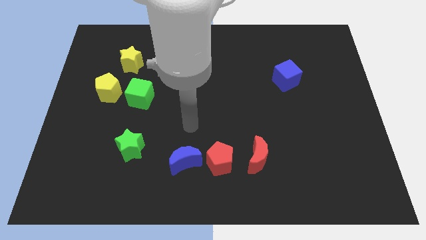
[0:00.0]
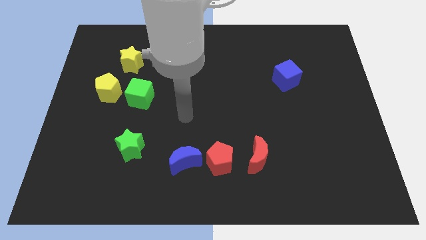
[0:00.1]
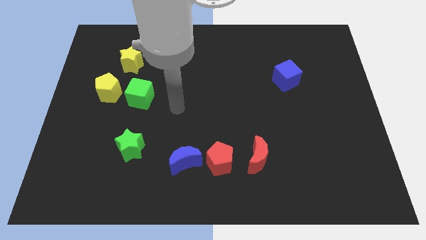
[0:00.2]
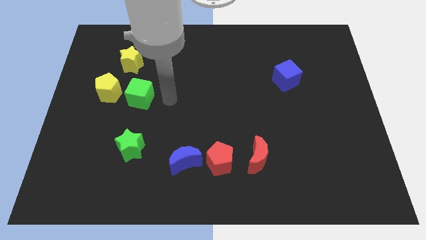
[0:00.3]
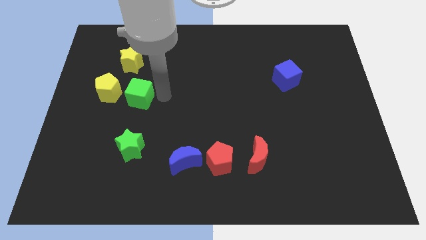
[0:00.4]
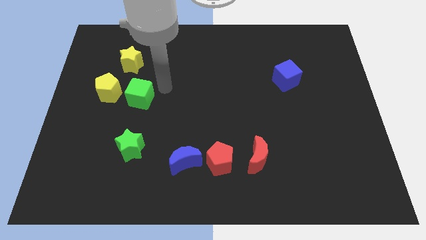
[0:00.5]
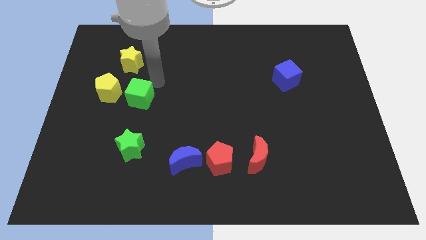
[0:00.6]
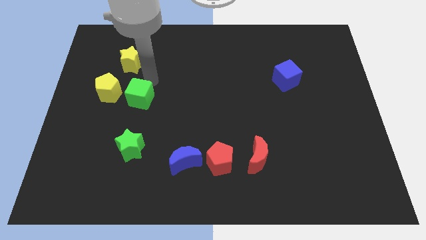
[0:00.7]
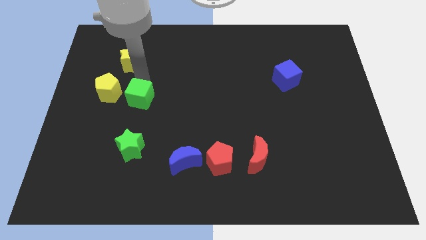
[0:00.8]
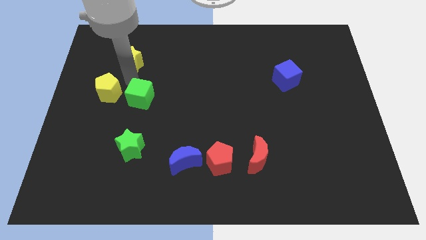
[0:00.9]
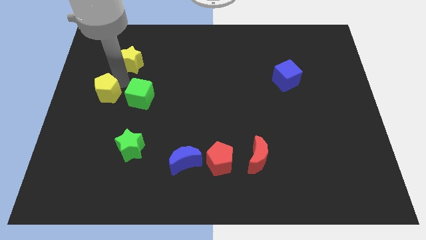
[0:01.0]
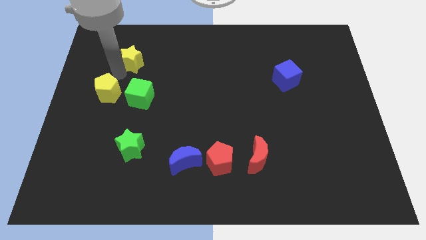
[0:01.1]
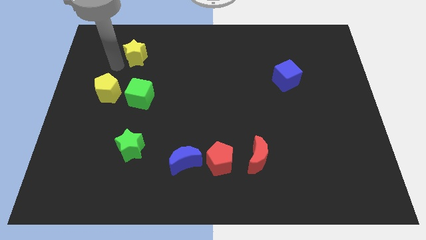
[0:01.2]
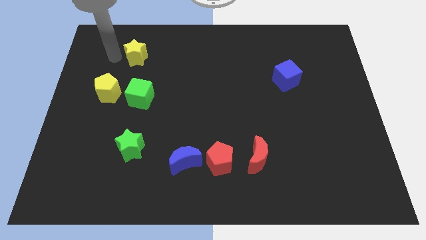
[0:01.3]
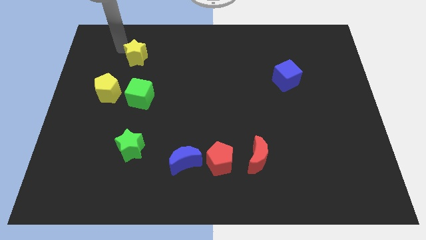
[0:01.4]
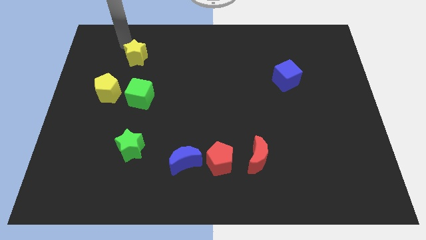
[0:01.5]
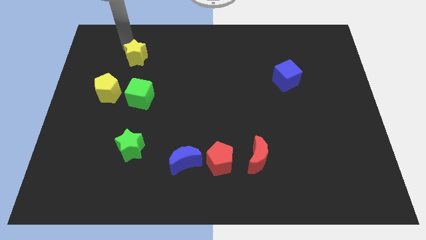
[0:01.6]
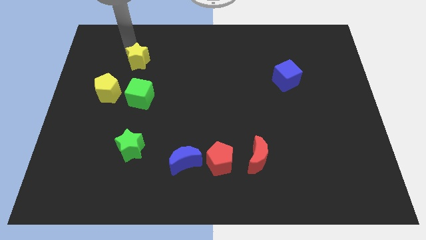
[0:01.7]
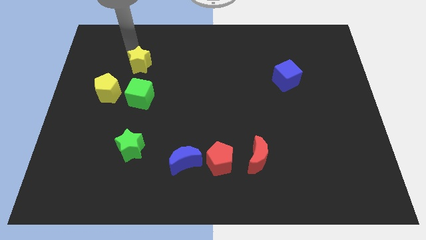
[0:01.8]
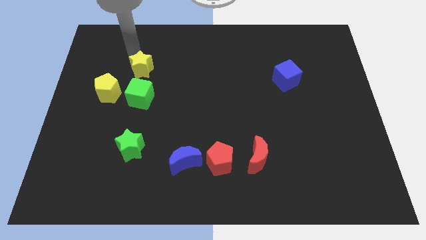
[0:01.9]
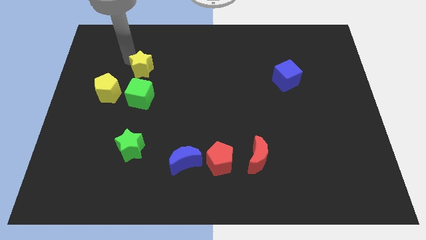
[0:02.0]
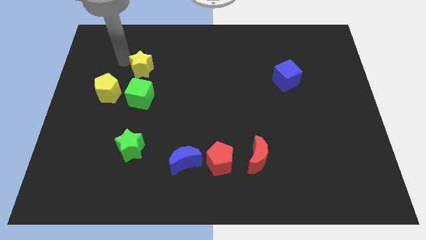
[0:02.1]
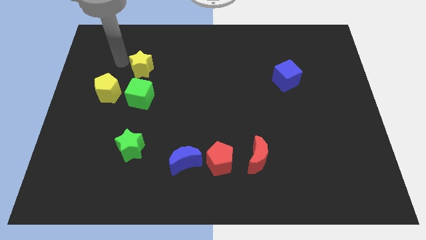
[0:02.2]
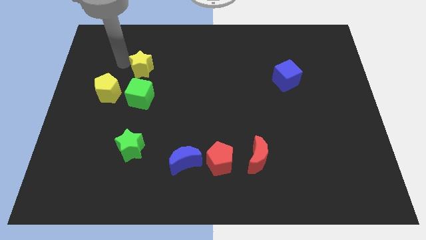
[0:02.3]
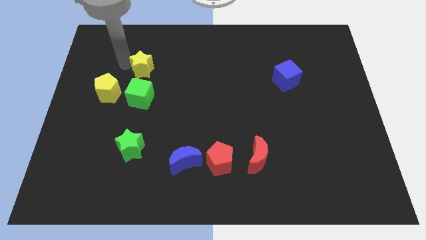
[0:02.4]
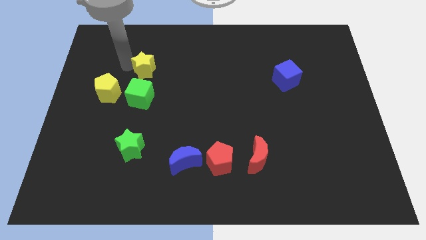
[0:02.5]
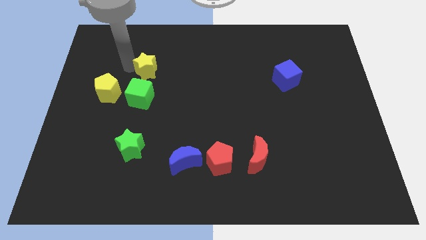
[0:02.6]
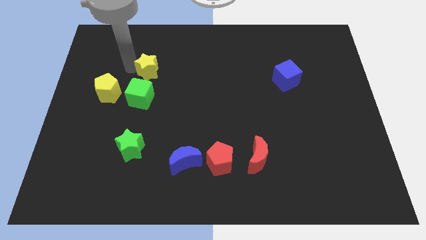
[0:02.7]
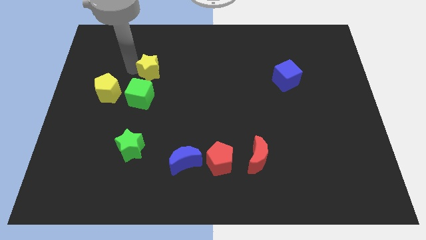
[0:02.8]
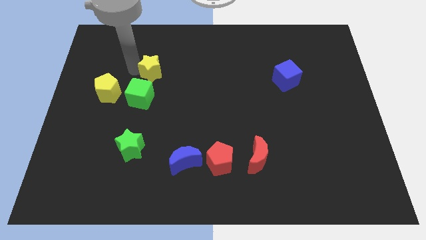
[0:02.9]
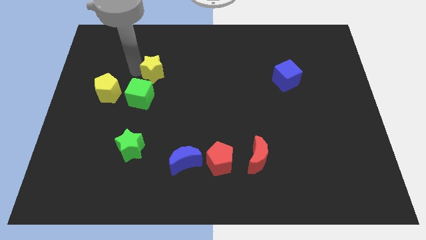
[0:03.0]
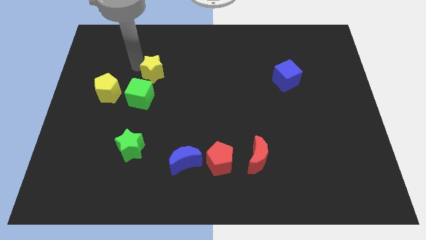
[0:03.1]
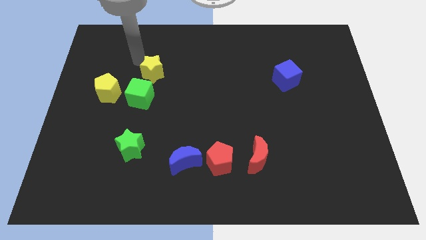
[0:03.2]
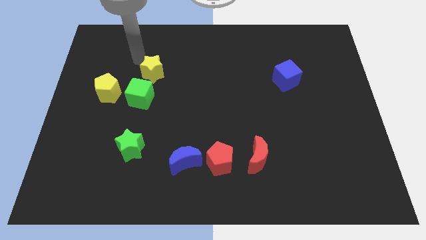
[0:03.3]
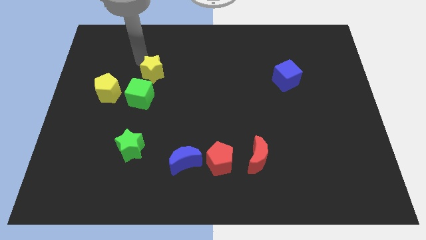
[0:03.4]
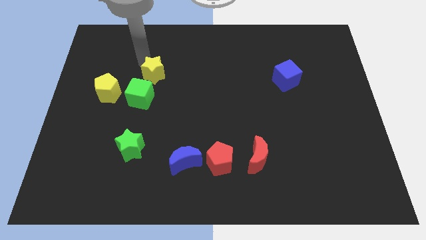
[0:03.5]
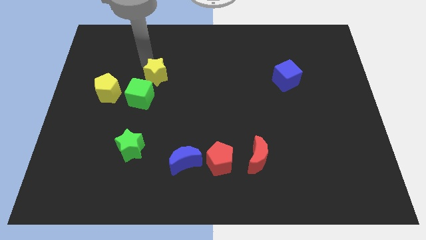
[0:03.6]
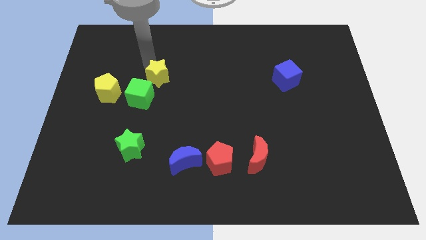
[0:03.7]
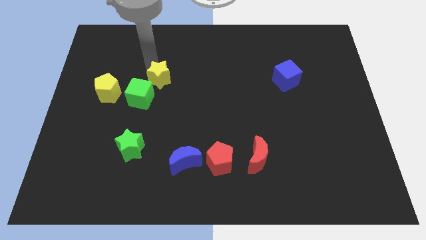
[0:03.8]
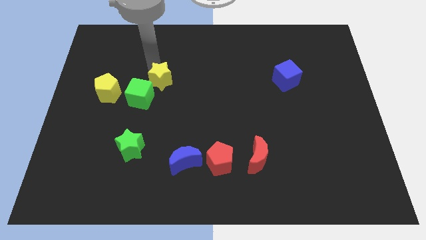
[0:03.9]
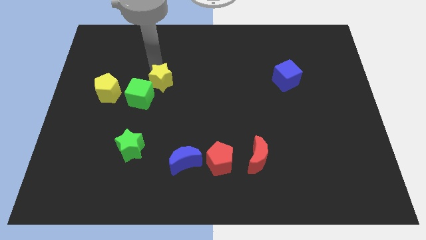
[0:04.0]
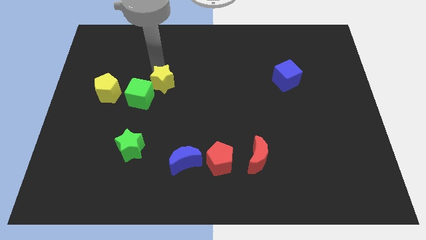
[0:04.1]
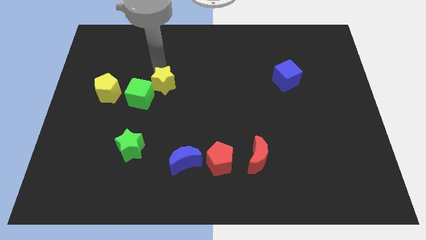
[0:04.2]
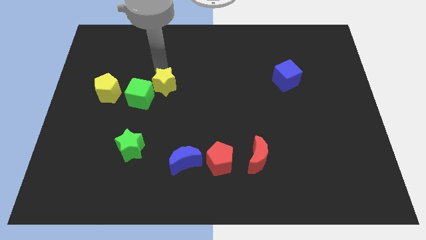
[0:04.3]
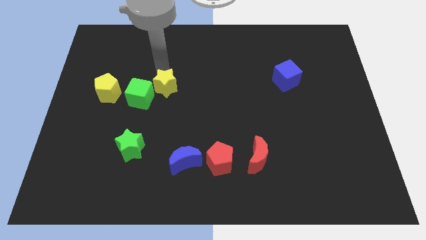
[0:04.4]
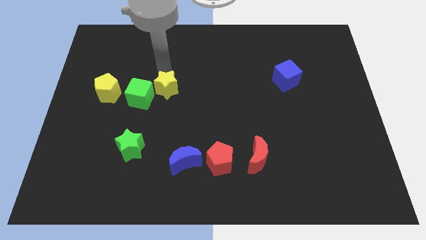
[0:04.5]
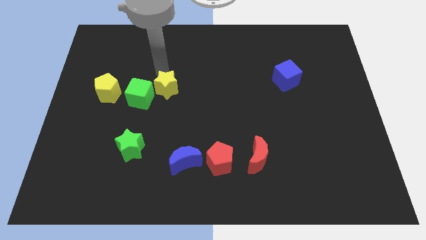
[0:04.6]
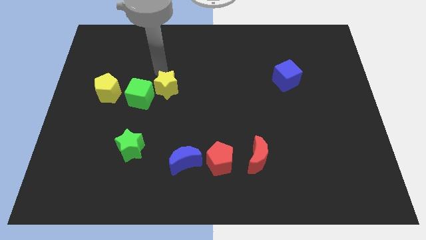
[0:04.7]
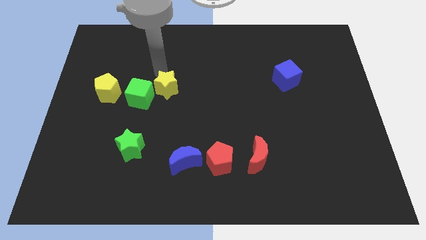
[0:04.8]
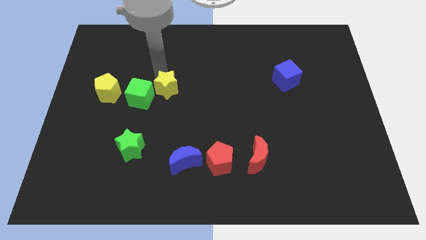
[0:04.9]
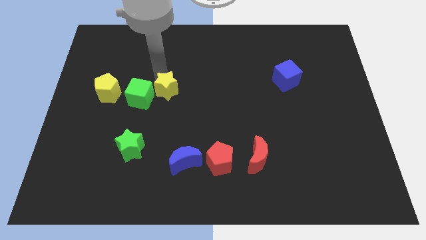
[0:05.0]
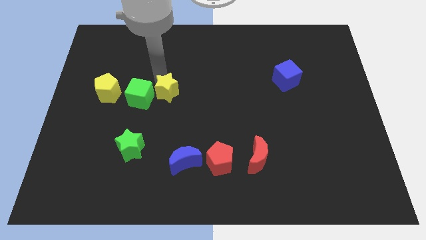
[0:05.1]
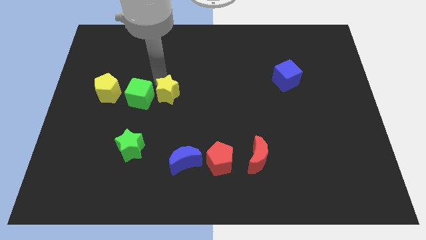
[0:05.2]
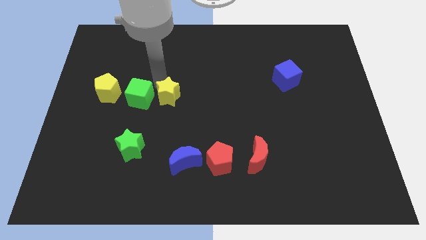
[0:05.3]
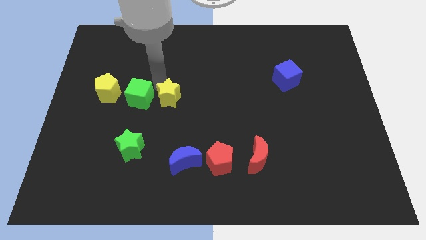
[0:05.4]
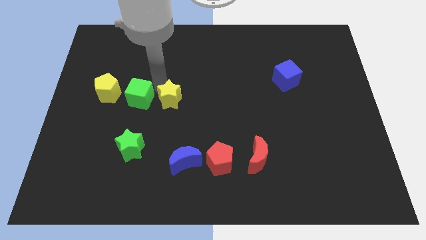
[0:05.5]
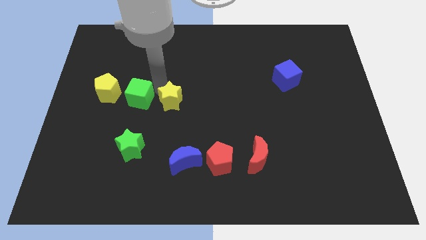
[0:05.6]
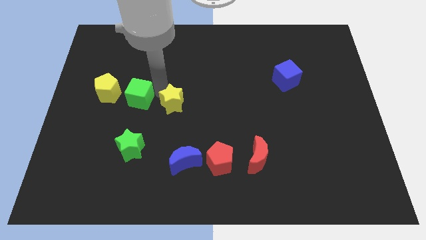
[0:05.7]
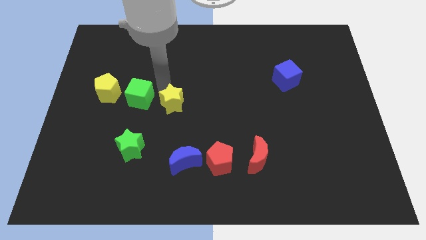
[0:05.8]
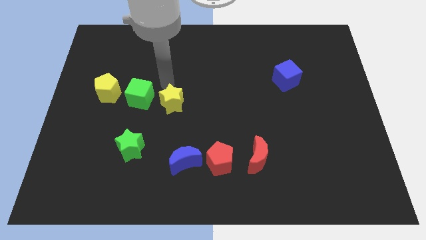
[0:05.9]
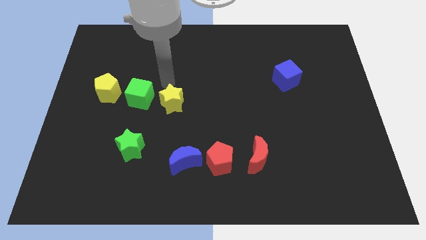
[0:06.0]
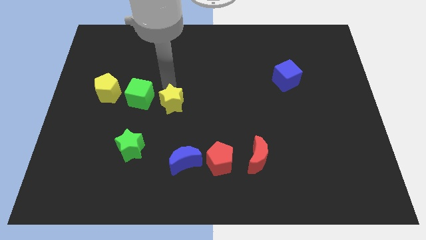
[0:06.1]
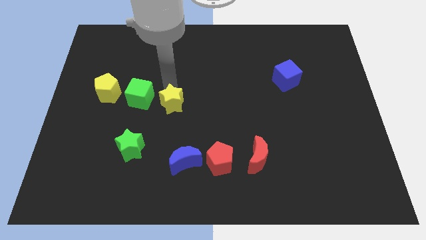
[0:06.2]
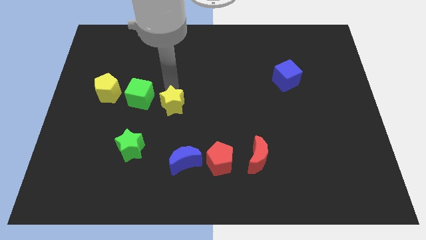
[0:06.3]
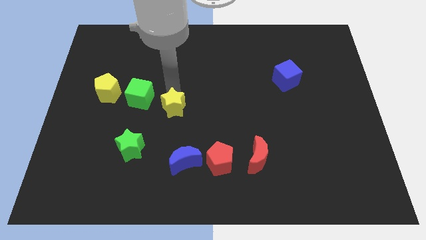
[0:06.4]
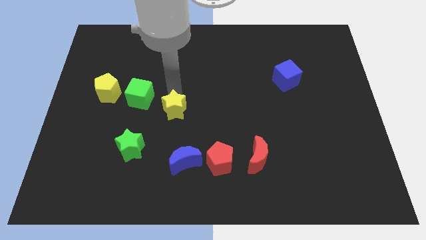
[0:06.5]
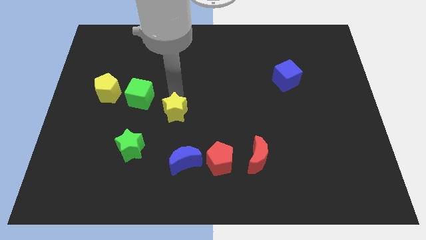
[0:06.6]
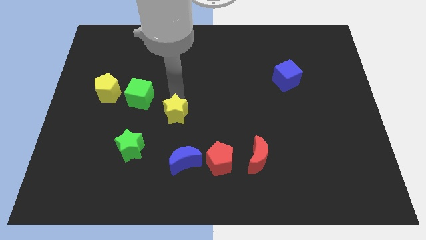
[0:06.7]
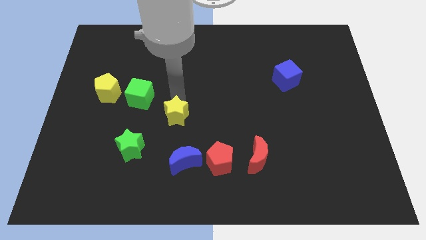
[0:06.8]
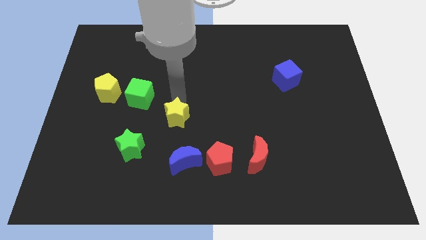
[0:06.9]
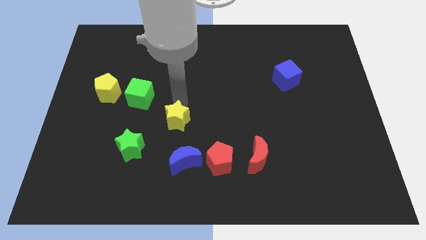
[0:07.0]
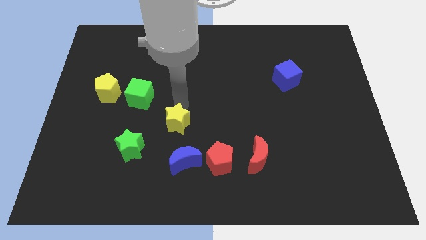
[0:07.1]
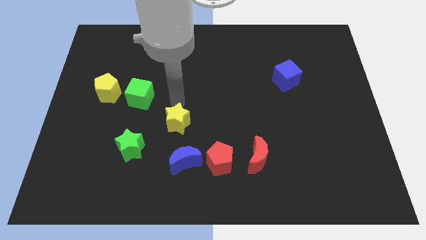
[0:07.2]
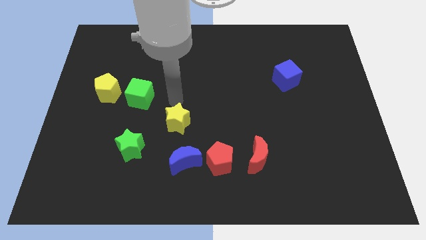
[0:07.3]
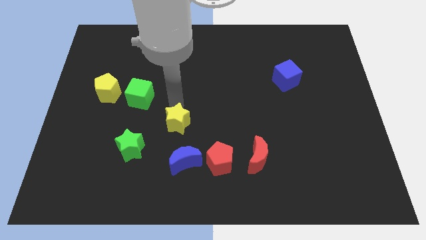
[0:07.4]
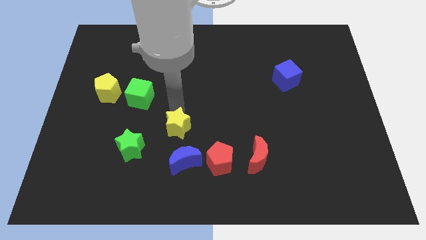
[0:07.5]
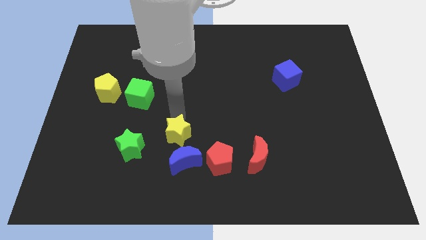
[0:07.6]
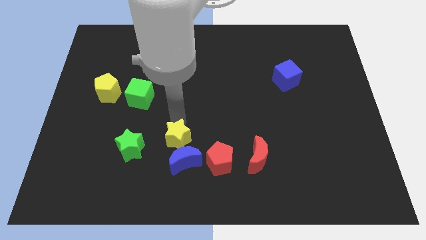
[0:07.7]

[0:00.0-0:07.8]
put the yellow star towards the blue moon

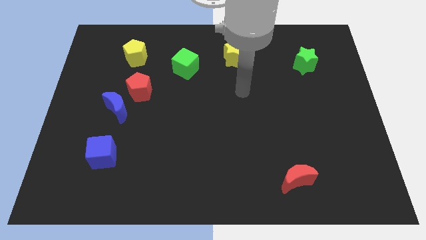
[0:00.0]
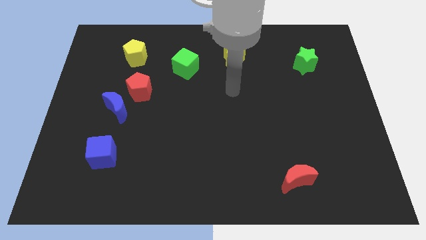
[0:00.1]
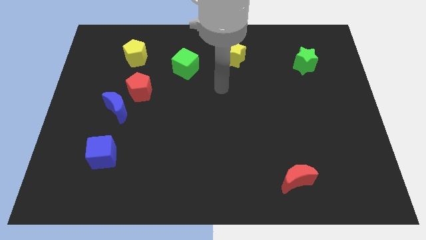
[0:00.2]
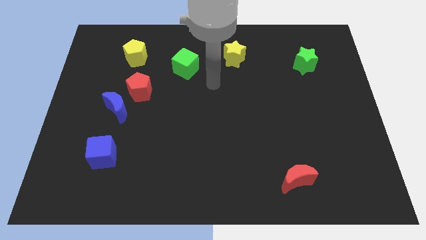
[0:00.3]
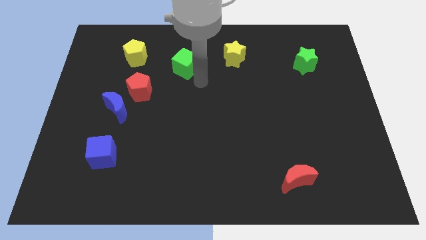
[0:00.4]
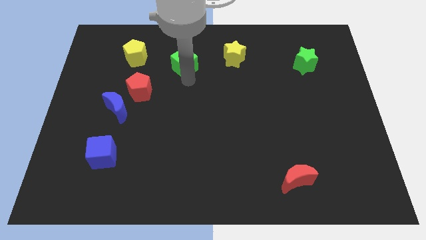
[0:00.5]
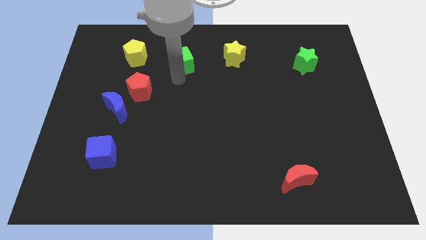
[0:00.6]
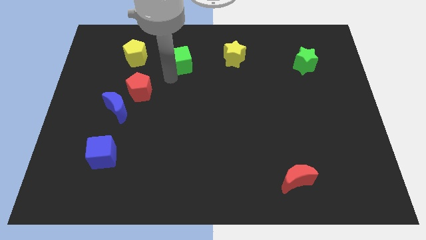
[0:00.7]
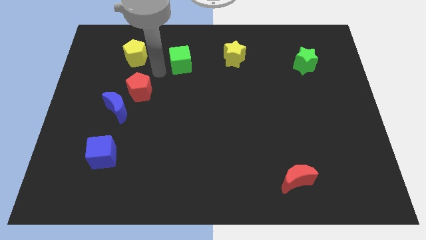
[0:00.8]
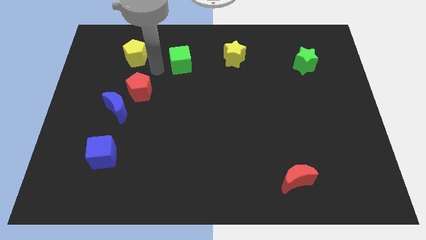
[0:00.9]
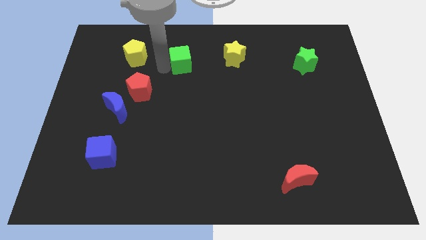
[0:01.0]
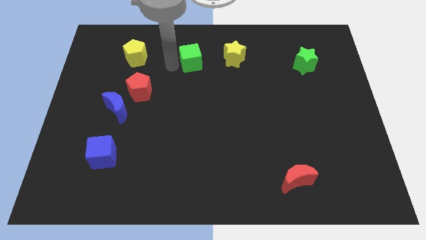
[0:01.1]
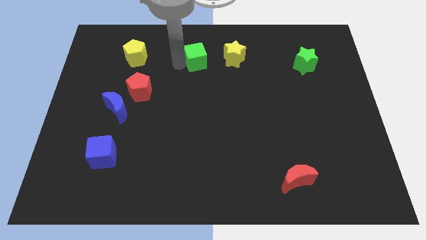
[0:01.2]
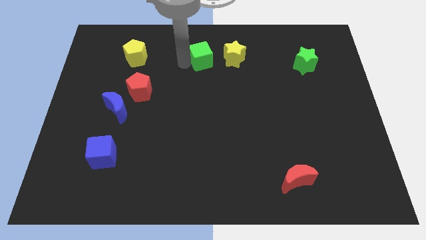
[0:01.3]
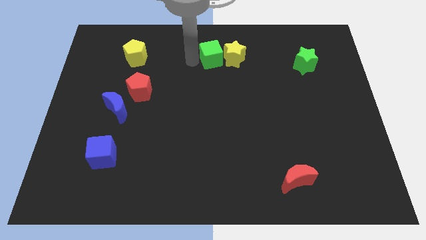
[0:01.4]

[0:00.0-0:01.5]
move the green cube to the yellow star
